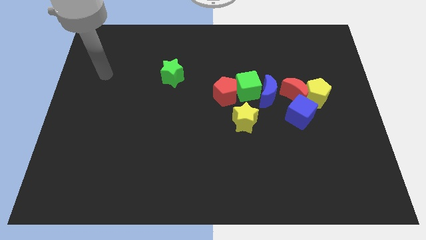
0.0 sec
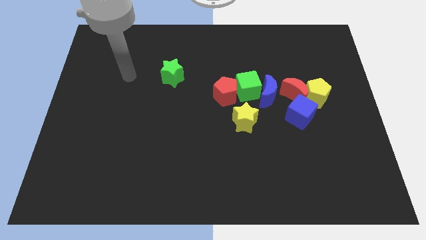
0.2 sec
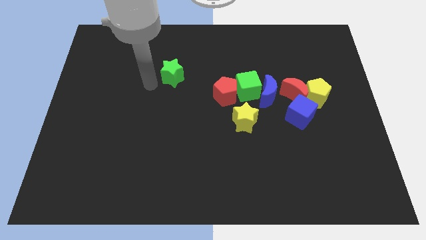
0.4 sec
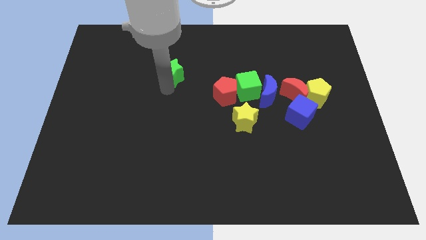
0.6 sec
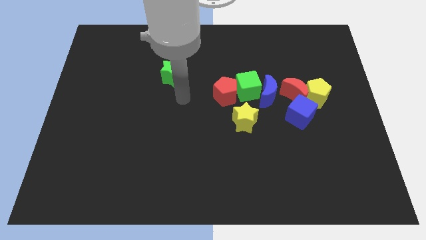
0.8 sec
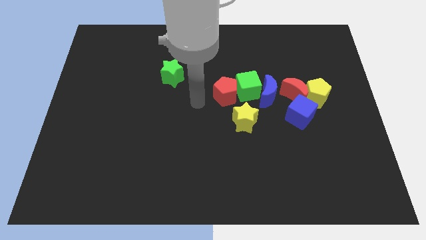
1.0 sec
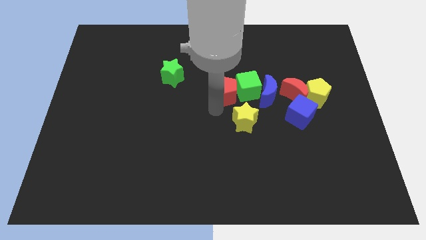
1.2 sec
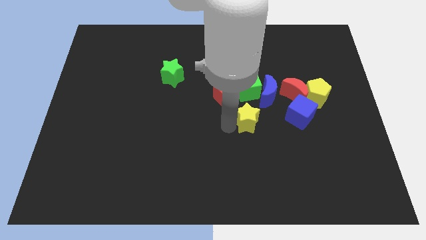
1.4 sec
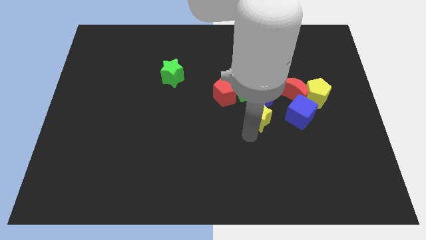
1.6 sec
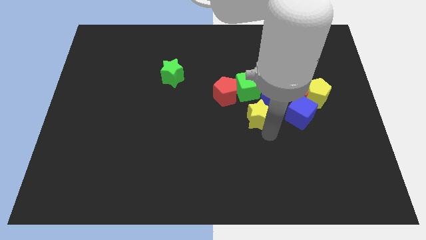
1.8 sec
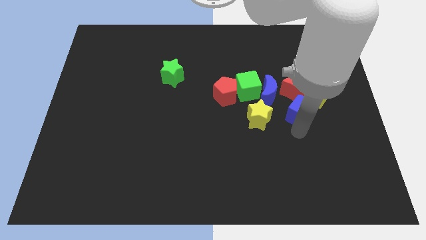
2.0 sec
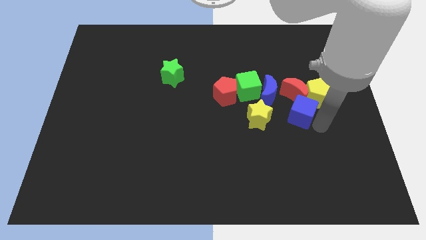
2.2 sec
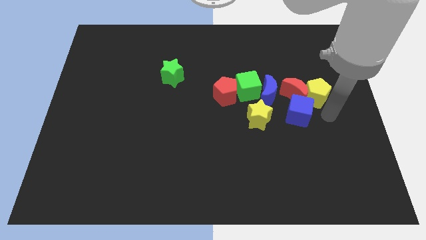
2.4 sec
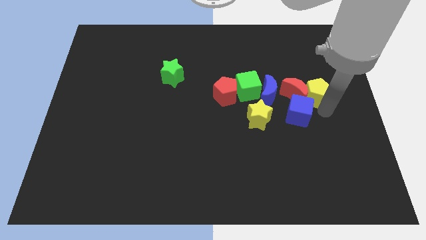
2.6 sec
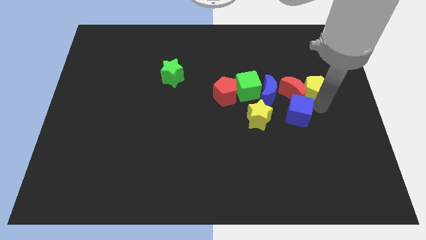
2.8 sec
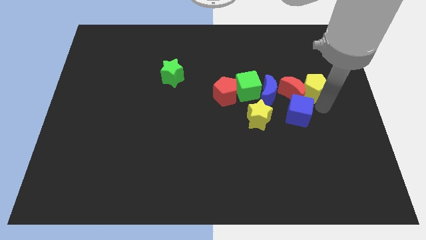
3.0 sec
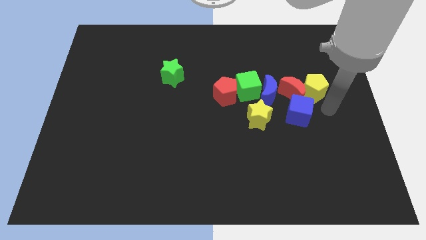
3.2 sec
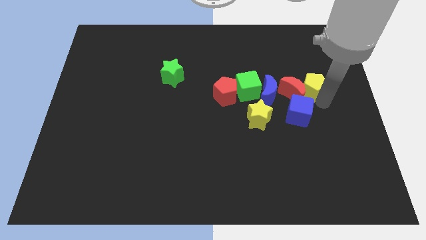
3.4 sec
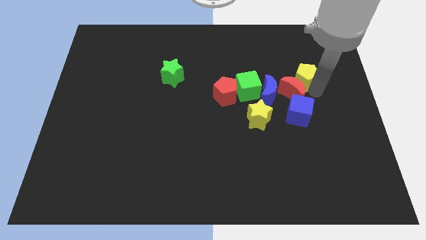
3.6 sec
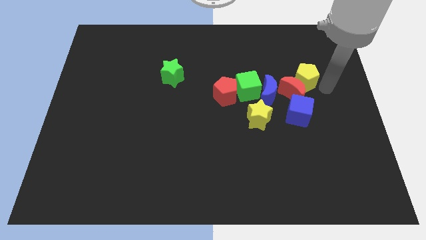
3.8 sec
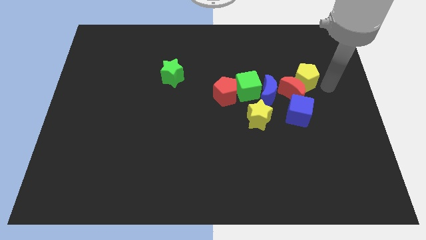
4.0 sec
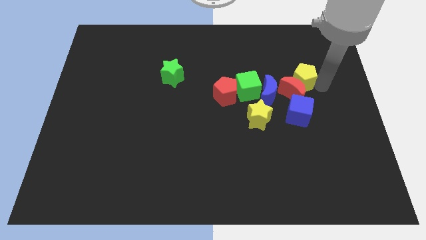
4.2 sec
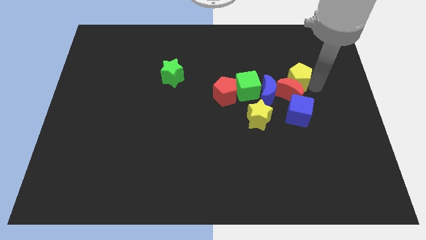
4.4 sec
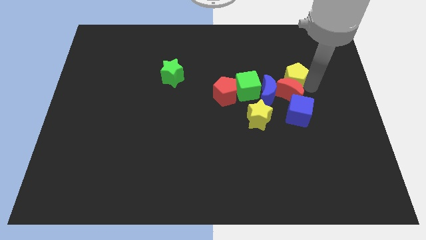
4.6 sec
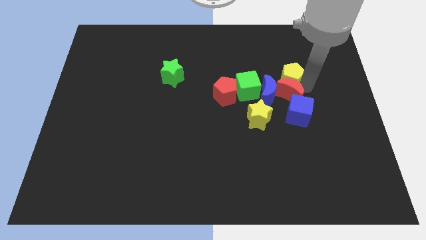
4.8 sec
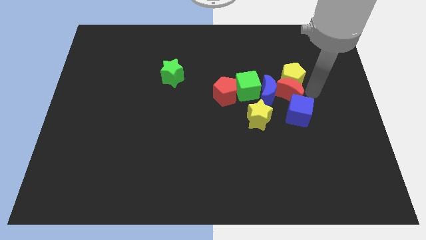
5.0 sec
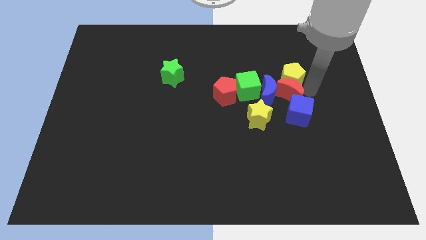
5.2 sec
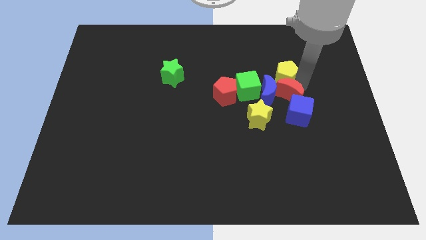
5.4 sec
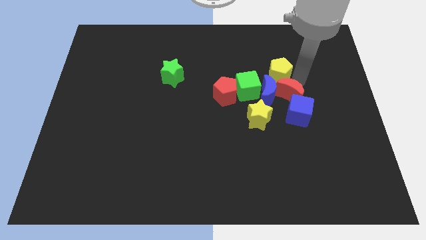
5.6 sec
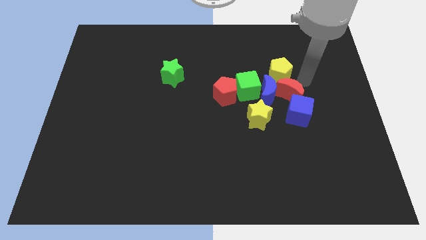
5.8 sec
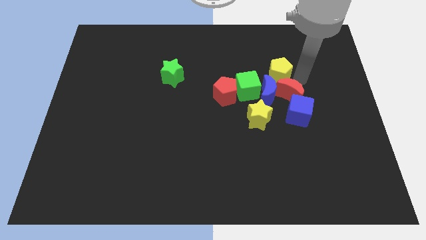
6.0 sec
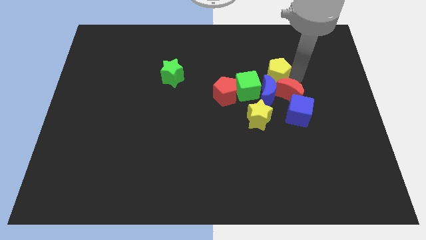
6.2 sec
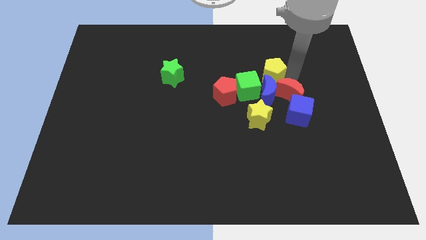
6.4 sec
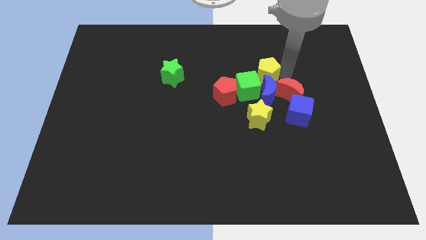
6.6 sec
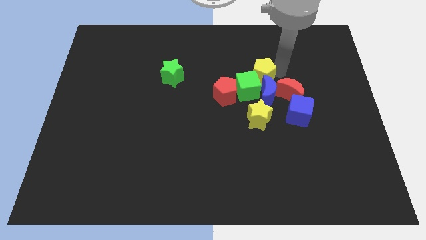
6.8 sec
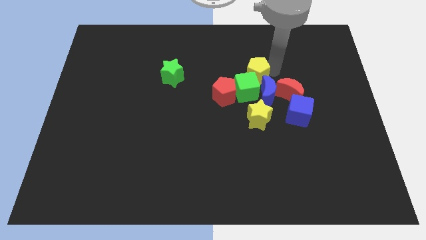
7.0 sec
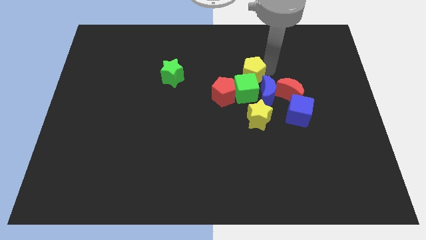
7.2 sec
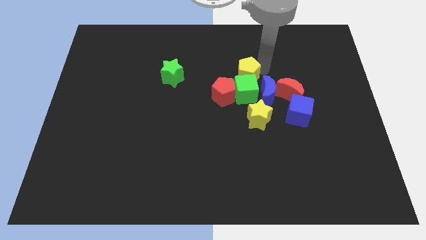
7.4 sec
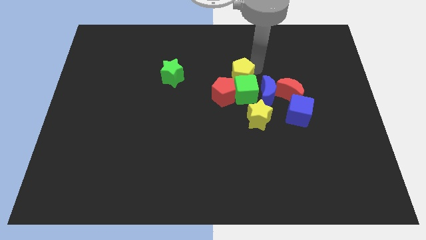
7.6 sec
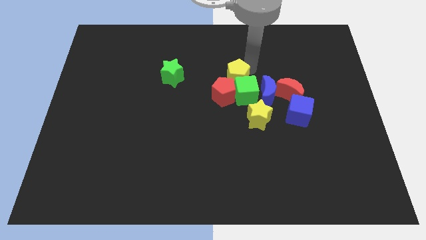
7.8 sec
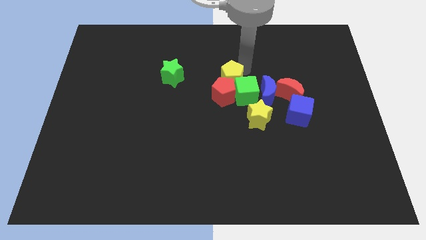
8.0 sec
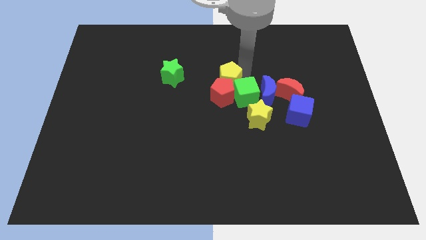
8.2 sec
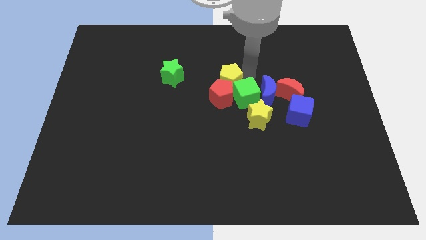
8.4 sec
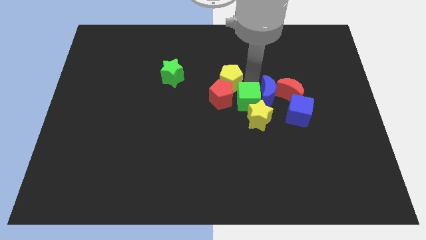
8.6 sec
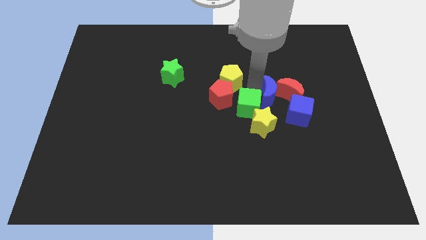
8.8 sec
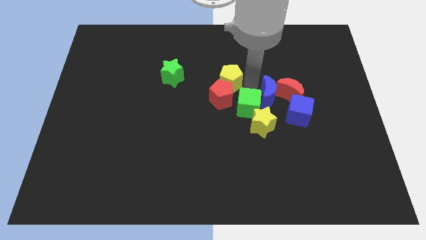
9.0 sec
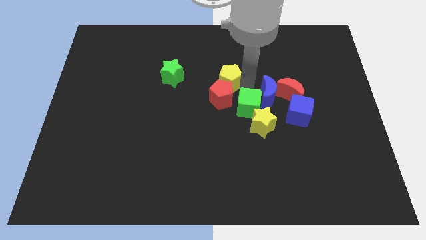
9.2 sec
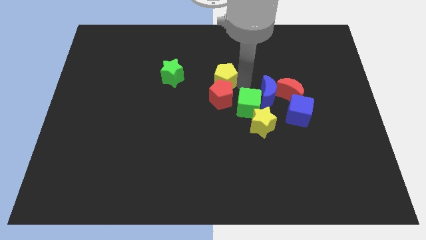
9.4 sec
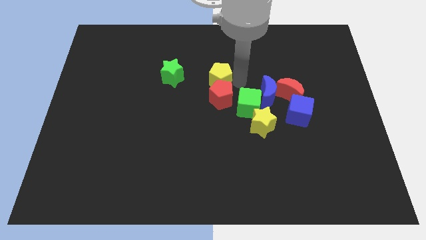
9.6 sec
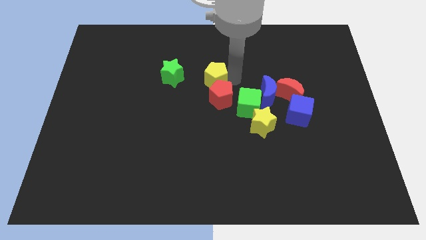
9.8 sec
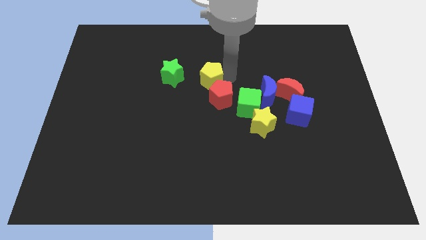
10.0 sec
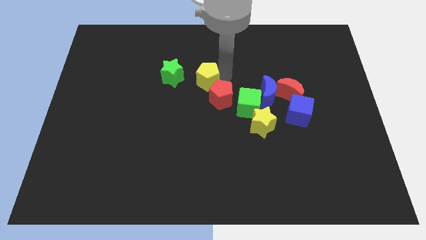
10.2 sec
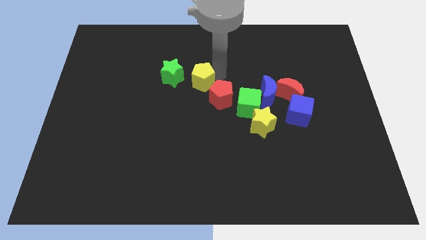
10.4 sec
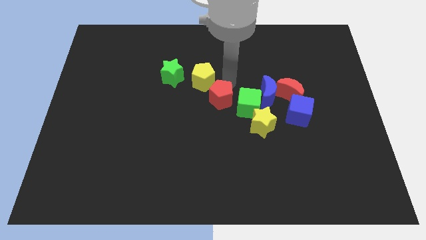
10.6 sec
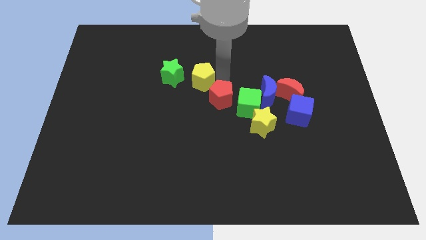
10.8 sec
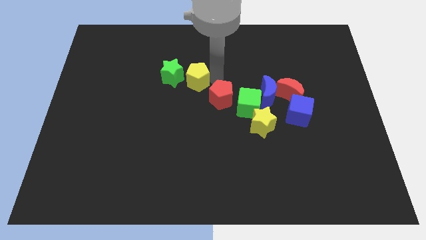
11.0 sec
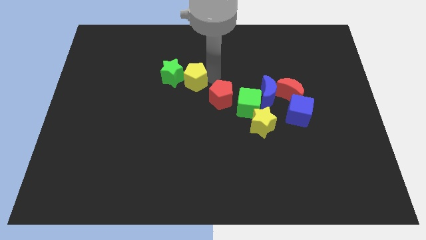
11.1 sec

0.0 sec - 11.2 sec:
put the yellow pentagon towards the green star

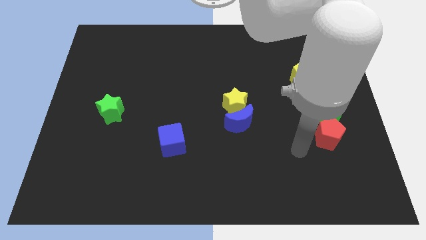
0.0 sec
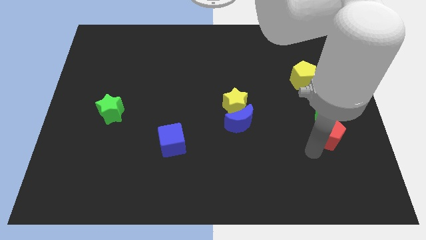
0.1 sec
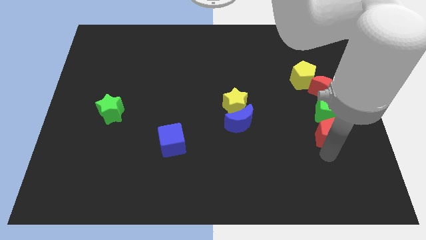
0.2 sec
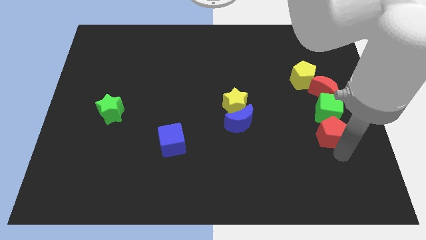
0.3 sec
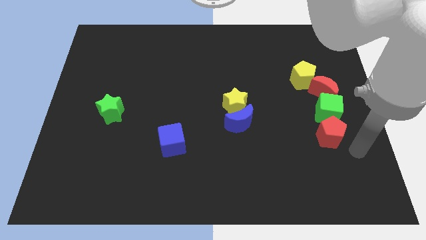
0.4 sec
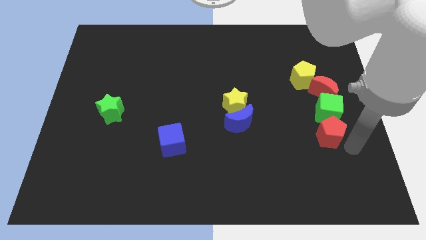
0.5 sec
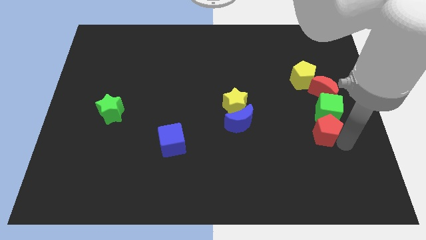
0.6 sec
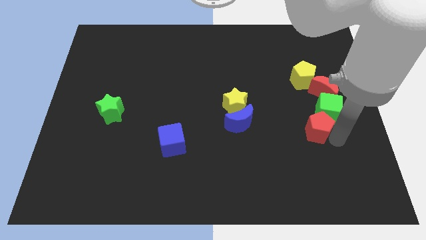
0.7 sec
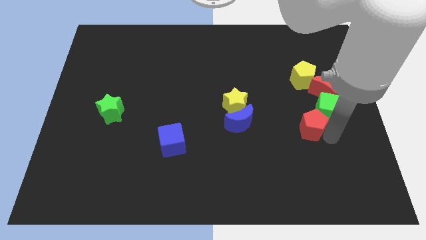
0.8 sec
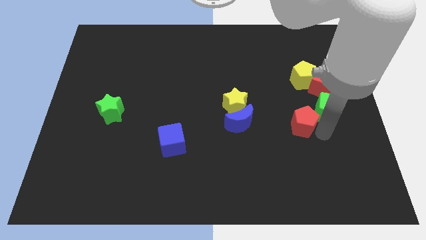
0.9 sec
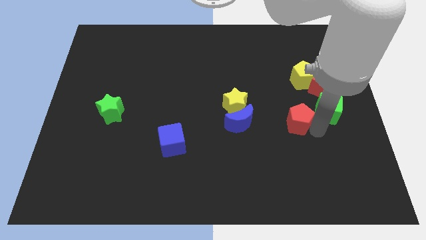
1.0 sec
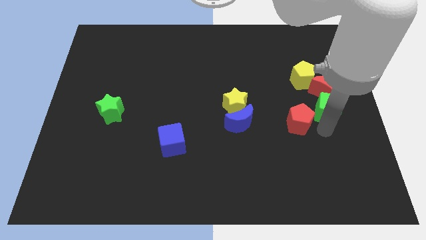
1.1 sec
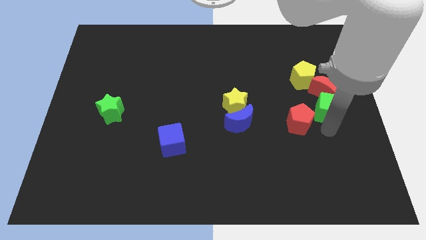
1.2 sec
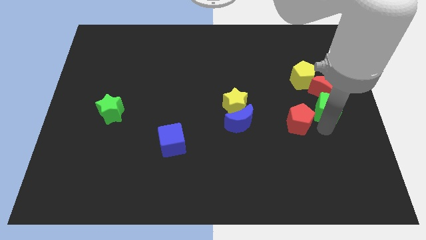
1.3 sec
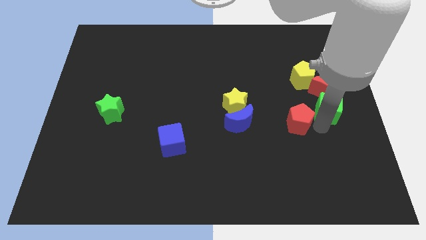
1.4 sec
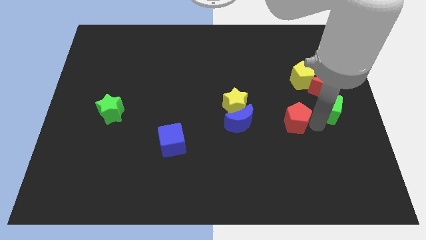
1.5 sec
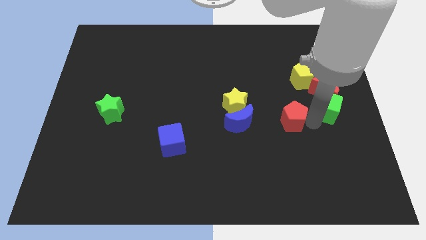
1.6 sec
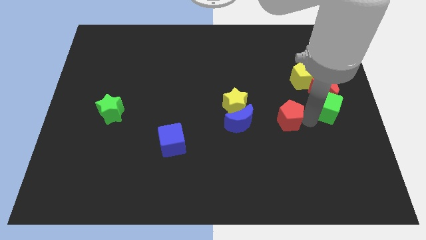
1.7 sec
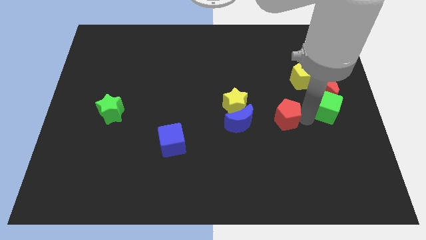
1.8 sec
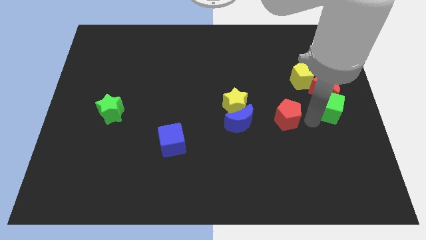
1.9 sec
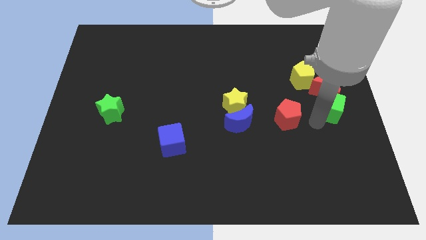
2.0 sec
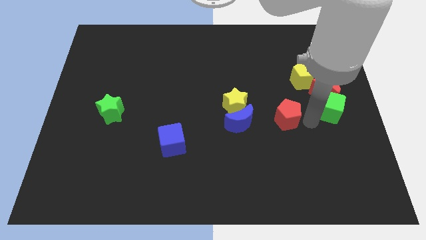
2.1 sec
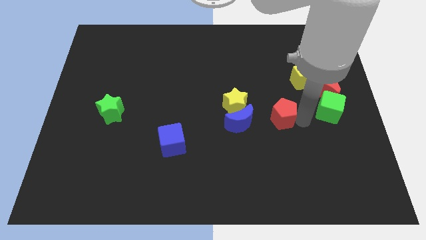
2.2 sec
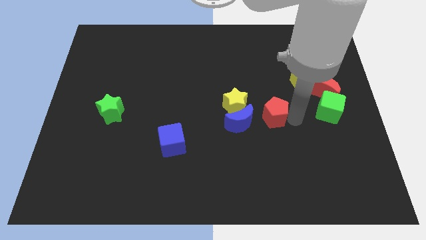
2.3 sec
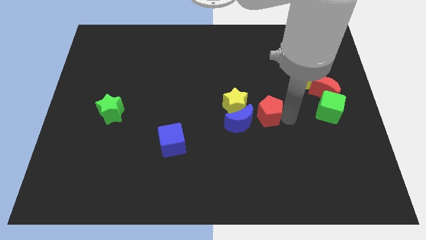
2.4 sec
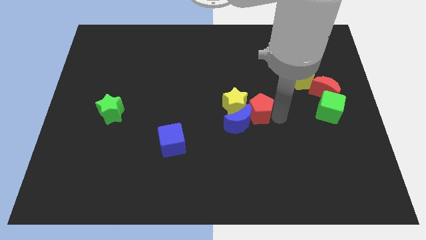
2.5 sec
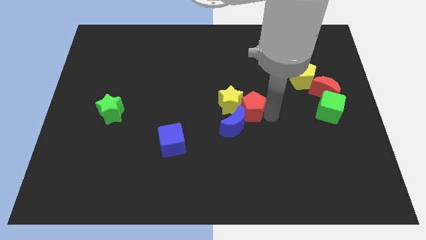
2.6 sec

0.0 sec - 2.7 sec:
move the red pentagon to the yellow star

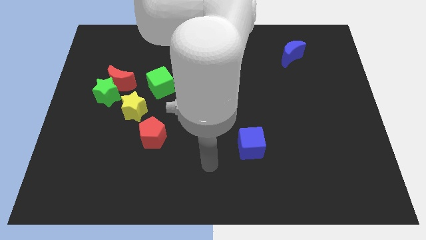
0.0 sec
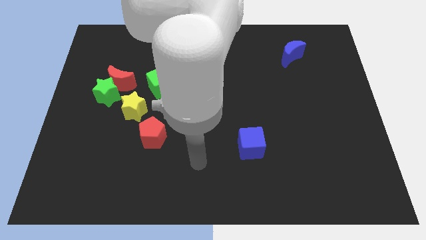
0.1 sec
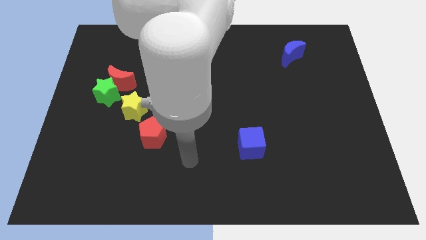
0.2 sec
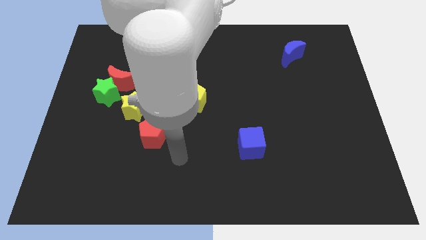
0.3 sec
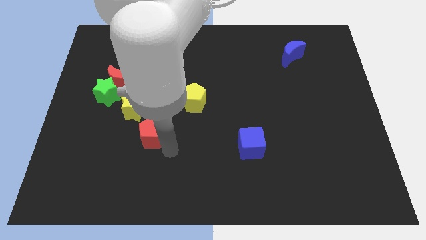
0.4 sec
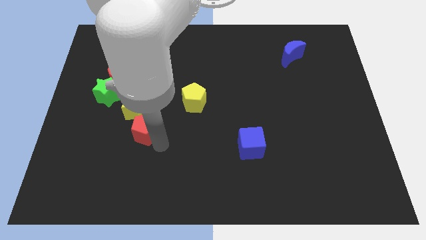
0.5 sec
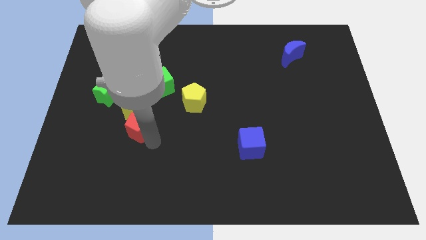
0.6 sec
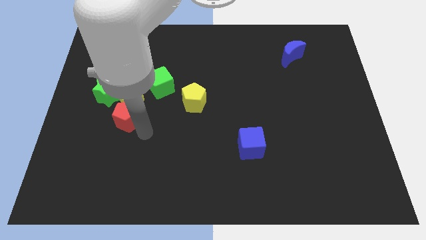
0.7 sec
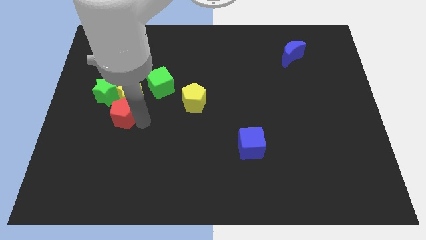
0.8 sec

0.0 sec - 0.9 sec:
move the yellow star close to the red moon
